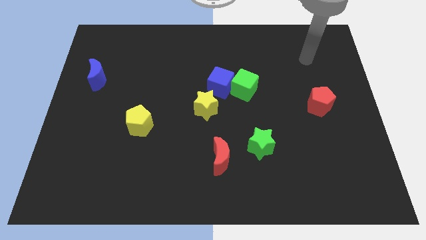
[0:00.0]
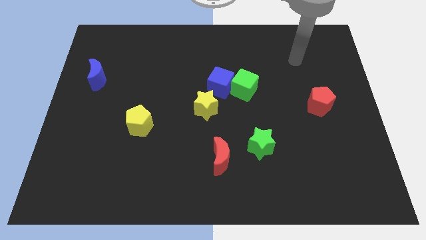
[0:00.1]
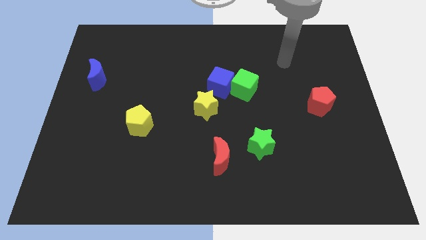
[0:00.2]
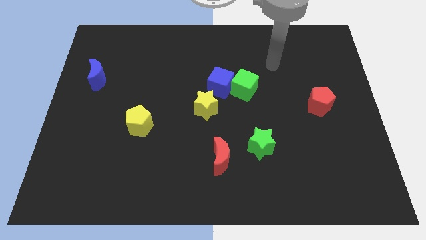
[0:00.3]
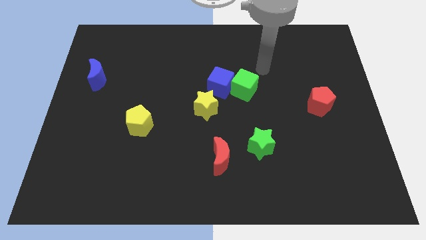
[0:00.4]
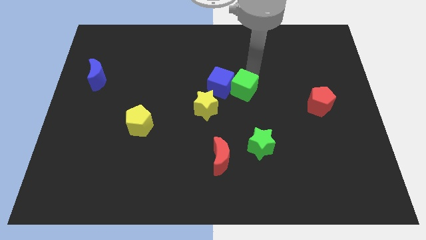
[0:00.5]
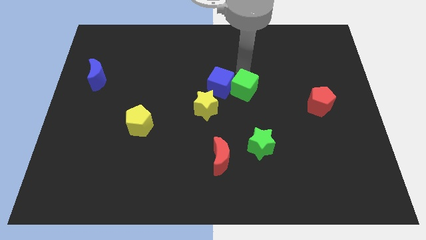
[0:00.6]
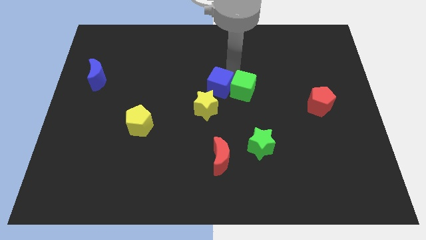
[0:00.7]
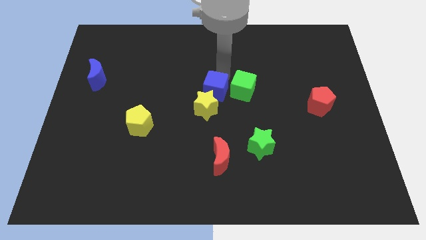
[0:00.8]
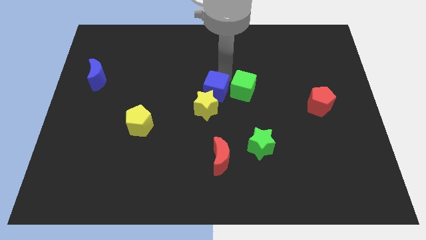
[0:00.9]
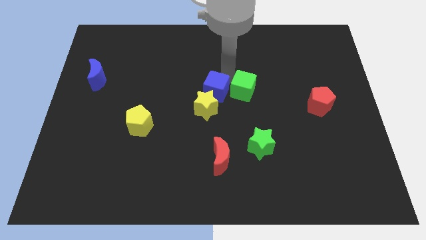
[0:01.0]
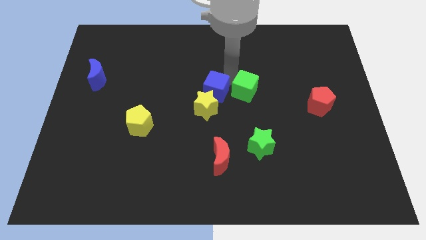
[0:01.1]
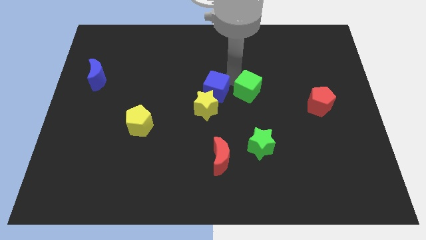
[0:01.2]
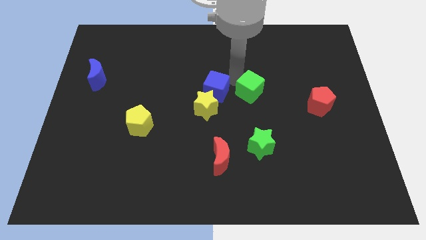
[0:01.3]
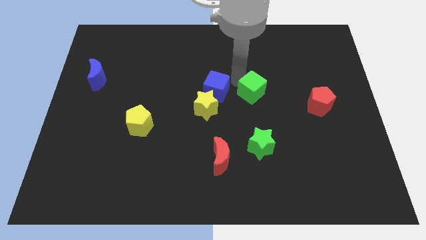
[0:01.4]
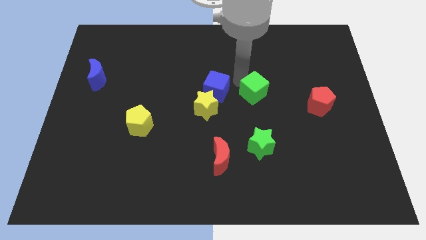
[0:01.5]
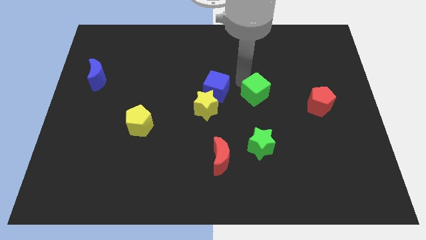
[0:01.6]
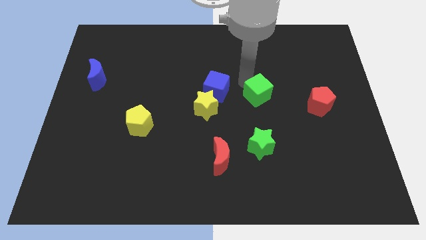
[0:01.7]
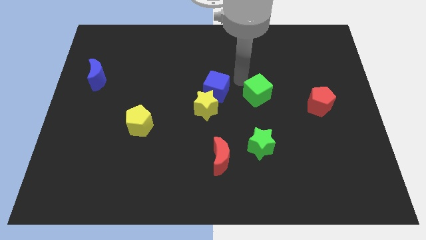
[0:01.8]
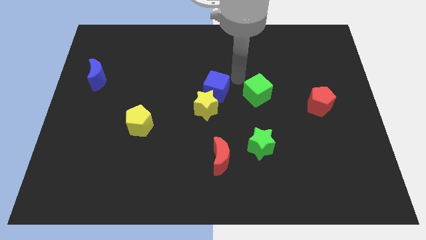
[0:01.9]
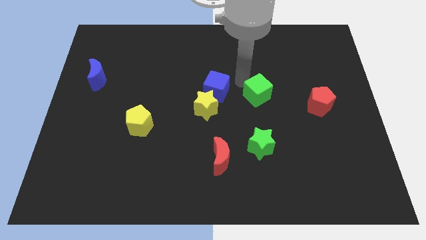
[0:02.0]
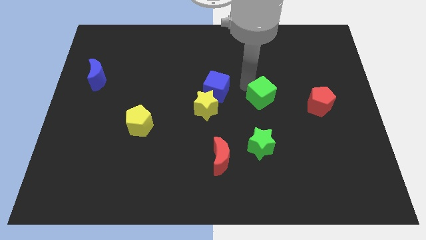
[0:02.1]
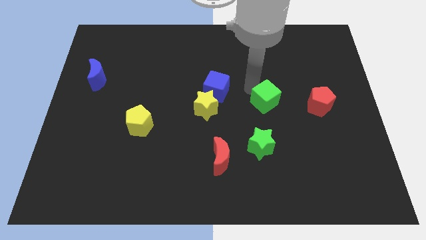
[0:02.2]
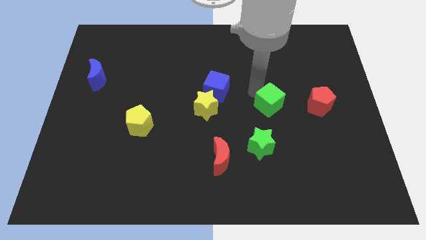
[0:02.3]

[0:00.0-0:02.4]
slightly slide the green cube downwards and right

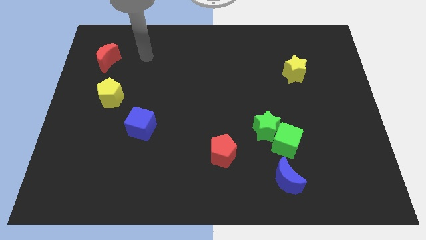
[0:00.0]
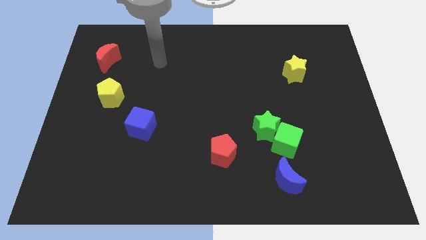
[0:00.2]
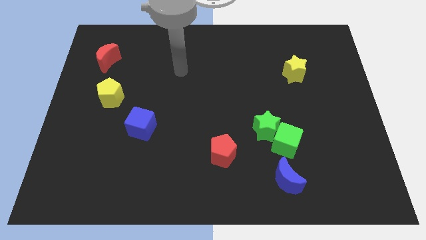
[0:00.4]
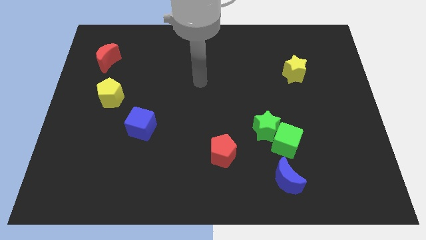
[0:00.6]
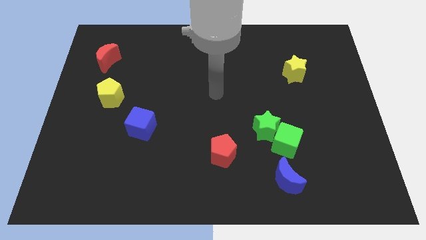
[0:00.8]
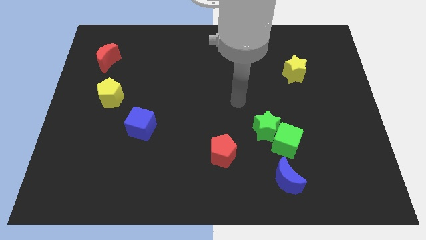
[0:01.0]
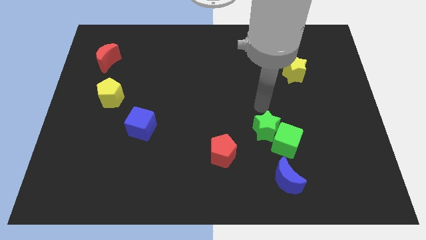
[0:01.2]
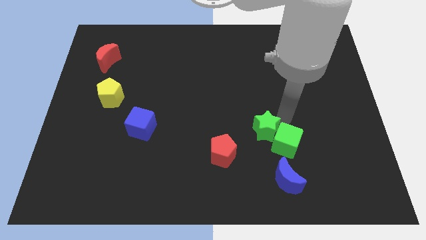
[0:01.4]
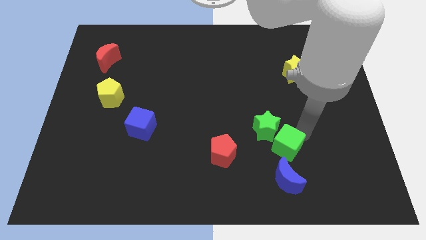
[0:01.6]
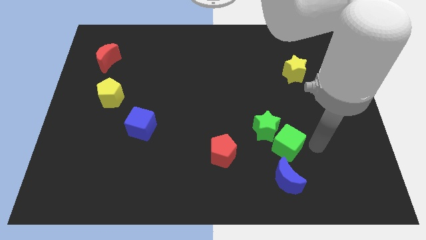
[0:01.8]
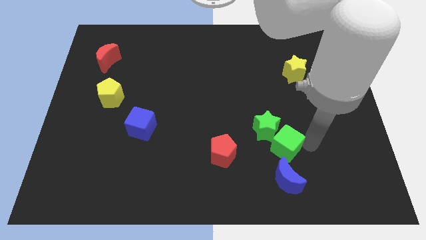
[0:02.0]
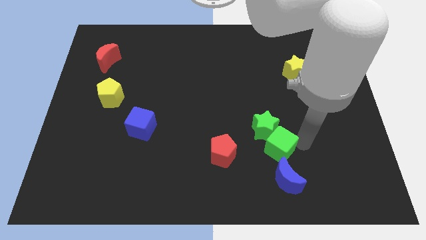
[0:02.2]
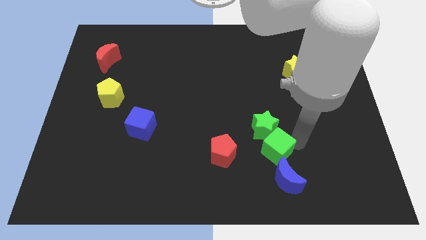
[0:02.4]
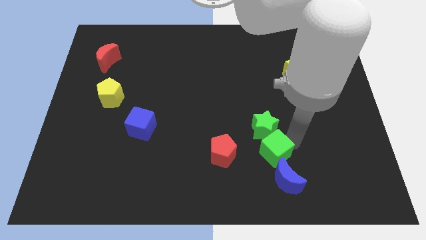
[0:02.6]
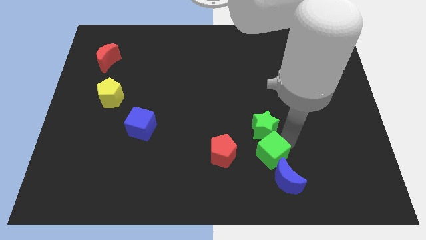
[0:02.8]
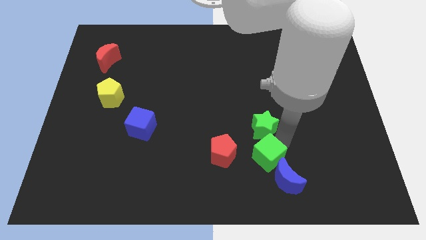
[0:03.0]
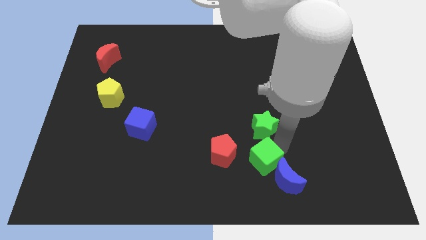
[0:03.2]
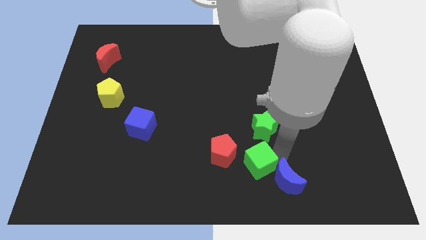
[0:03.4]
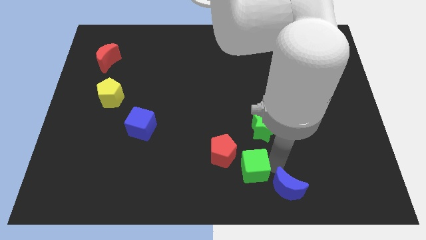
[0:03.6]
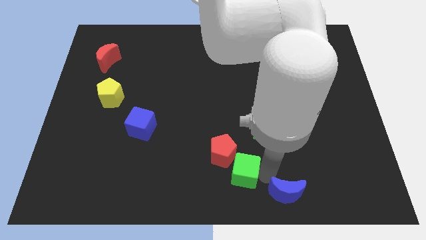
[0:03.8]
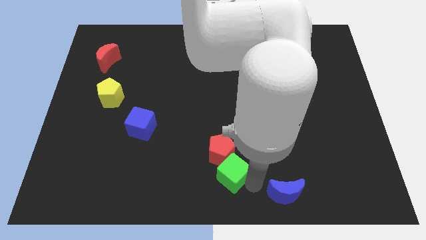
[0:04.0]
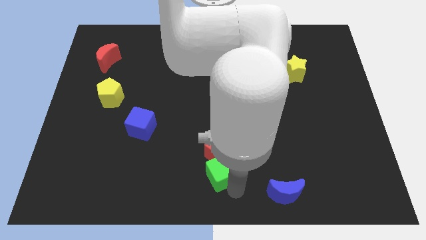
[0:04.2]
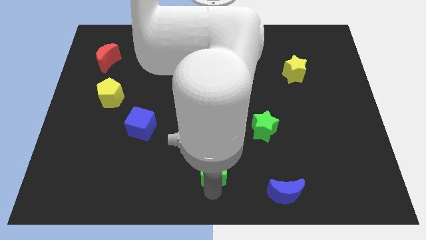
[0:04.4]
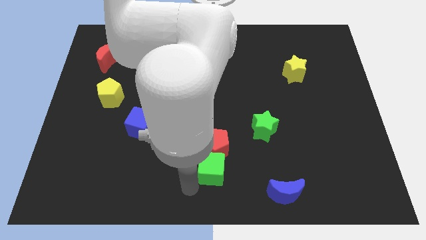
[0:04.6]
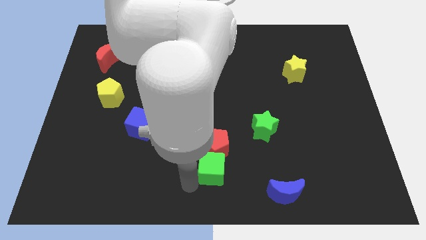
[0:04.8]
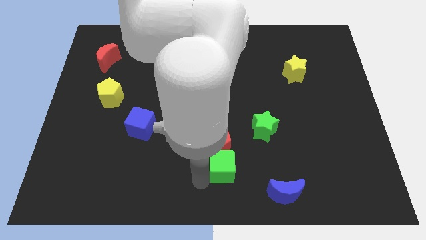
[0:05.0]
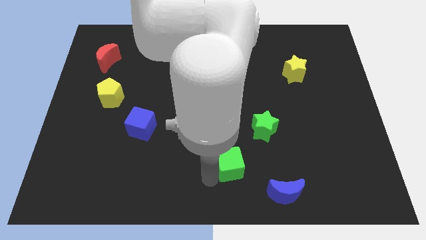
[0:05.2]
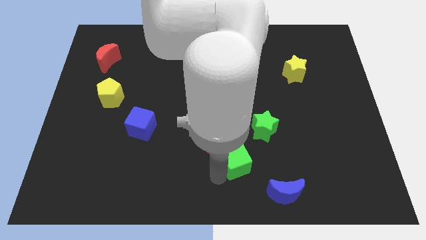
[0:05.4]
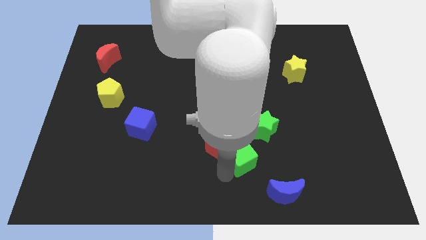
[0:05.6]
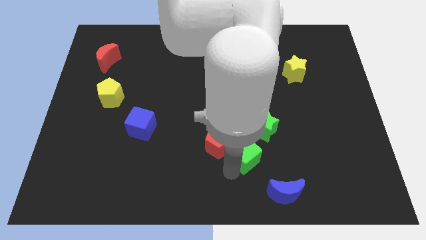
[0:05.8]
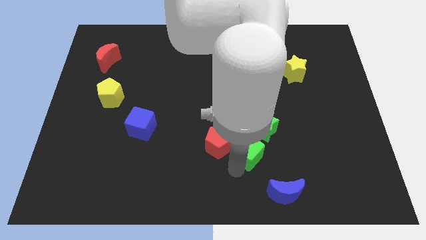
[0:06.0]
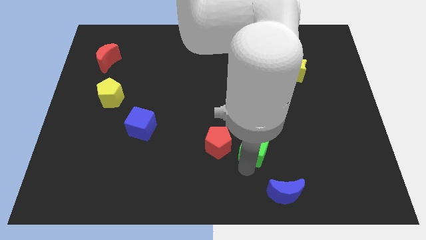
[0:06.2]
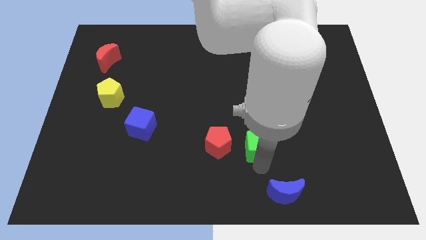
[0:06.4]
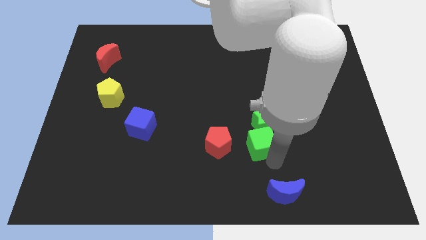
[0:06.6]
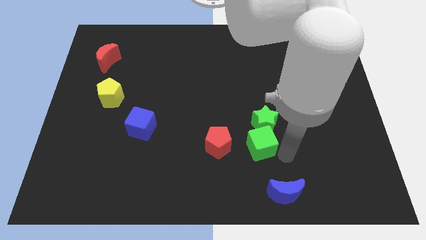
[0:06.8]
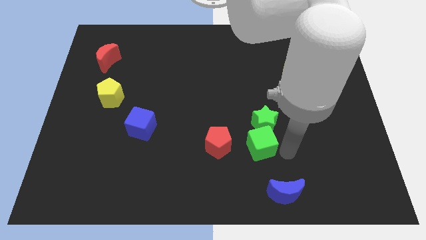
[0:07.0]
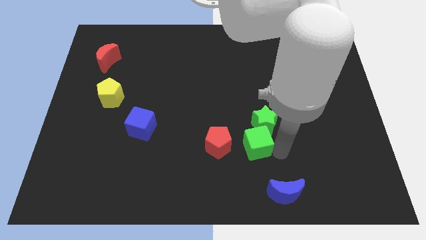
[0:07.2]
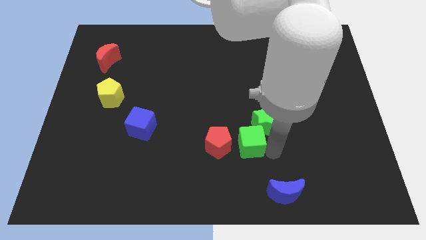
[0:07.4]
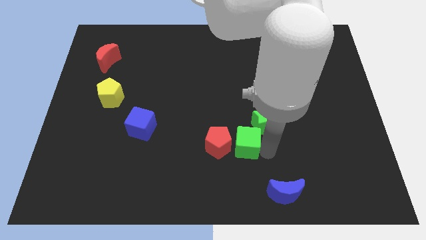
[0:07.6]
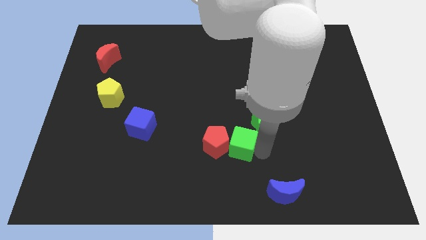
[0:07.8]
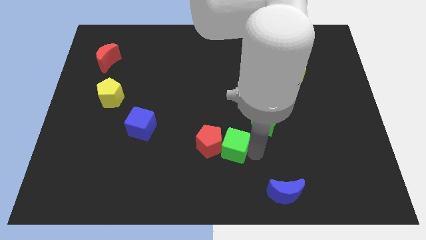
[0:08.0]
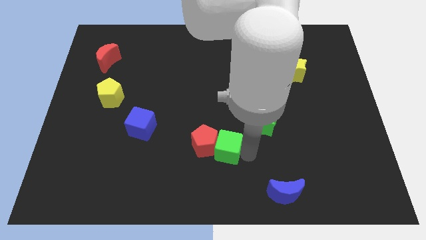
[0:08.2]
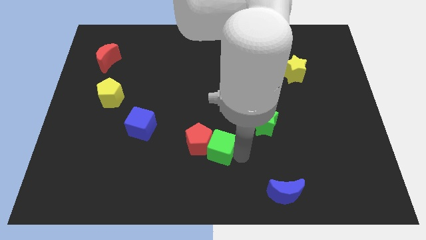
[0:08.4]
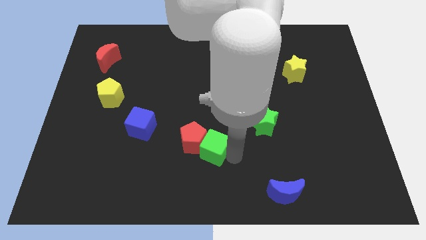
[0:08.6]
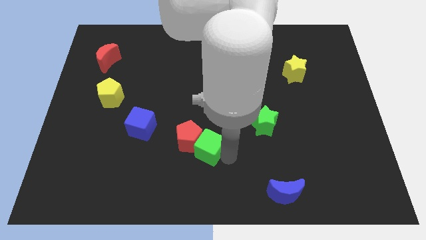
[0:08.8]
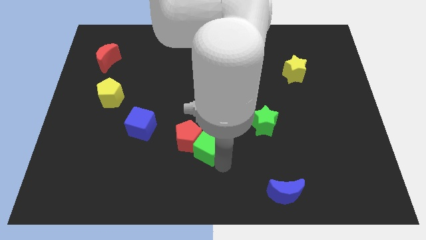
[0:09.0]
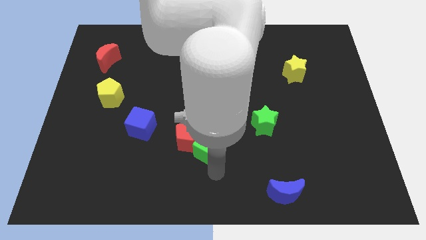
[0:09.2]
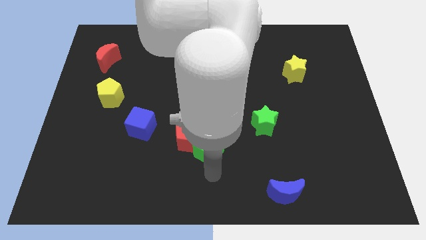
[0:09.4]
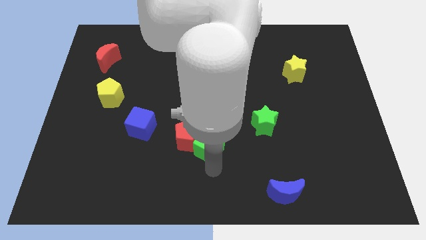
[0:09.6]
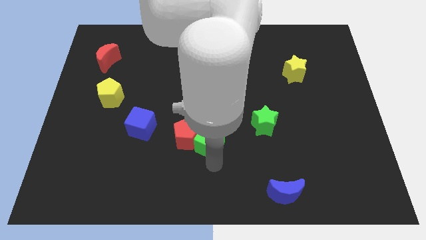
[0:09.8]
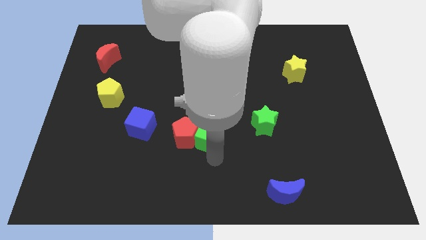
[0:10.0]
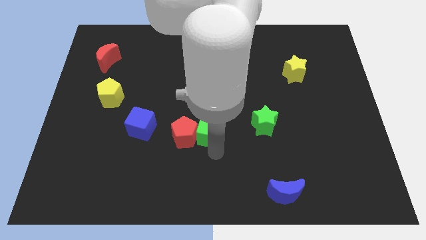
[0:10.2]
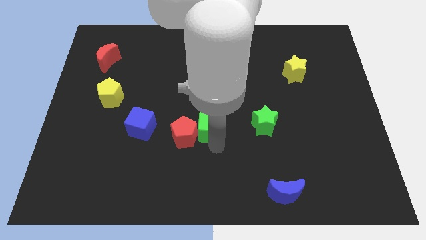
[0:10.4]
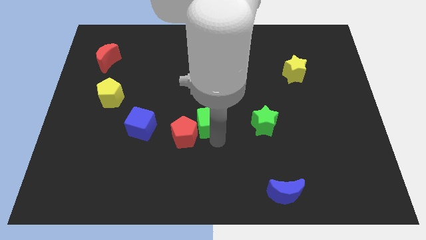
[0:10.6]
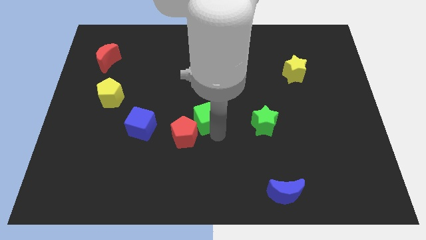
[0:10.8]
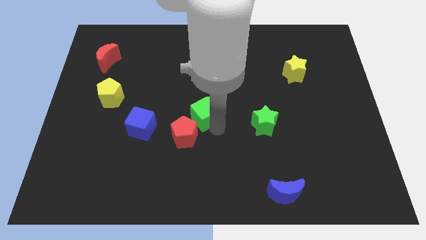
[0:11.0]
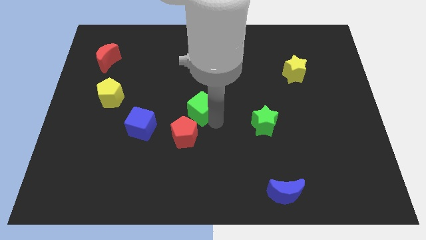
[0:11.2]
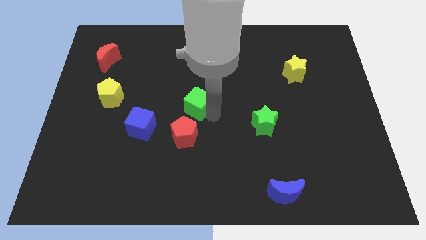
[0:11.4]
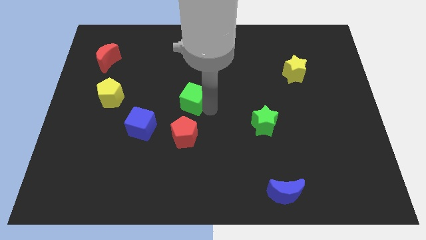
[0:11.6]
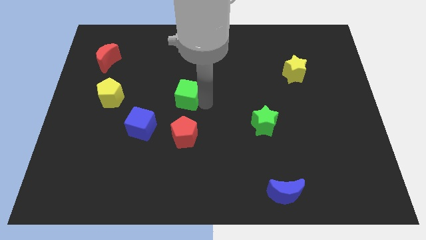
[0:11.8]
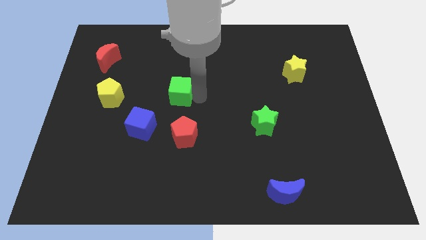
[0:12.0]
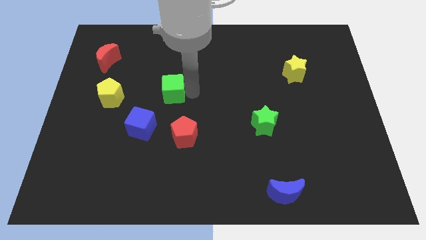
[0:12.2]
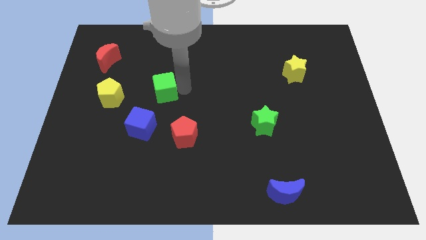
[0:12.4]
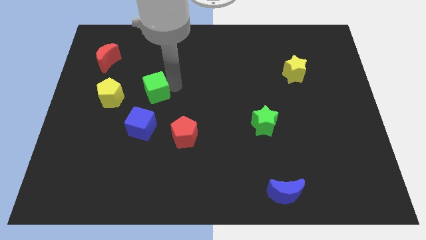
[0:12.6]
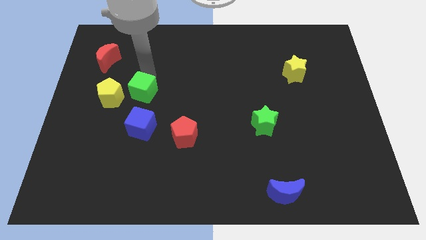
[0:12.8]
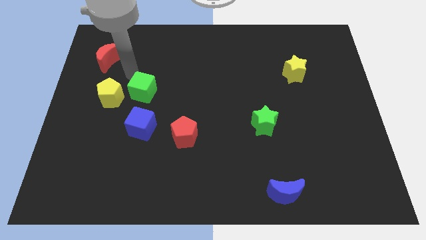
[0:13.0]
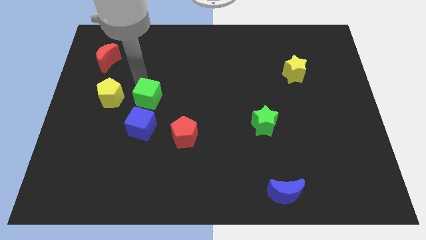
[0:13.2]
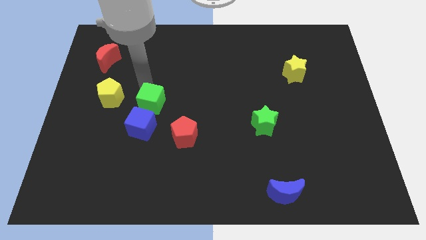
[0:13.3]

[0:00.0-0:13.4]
slide the green cube to the left
